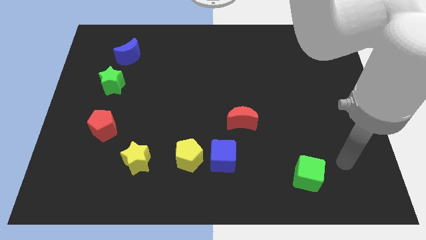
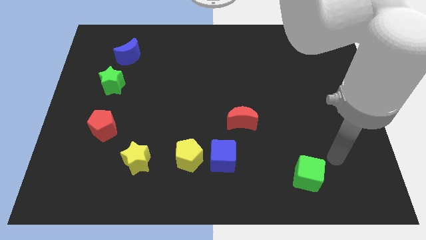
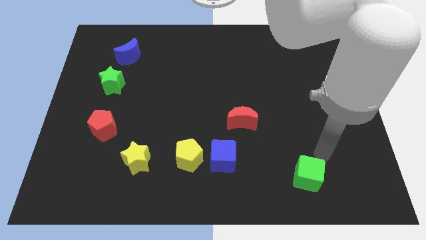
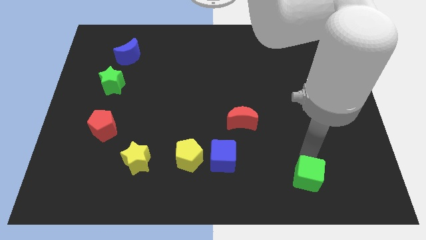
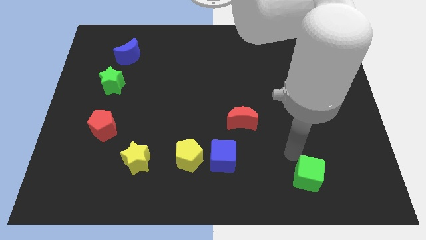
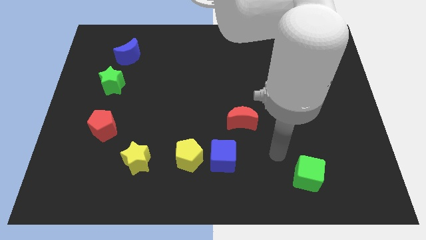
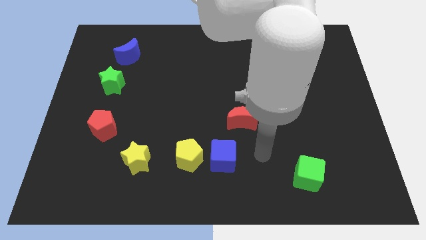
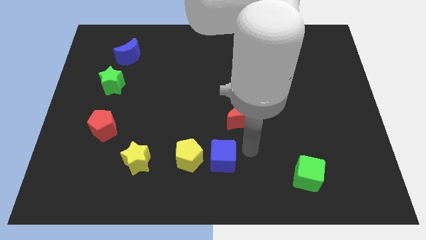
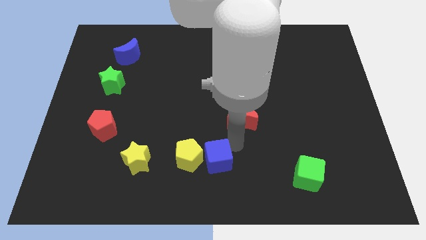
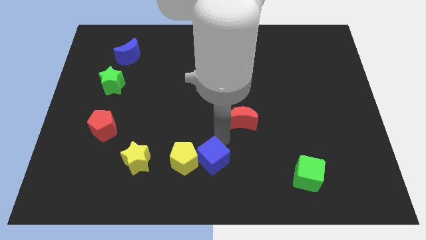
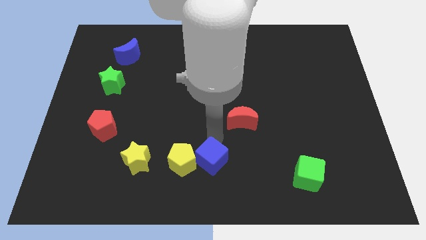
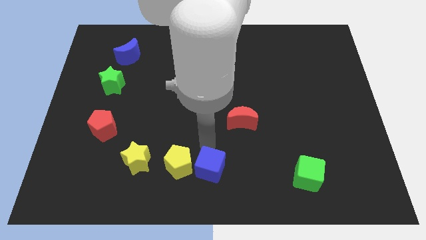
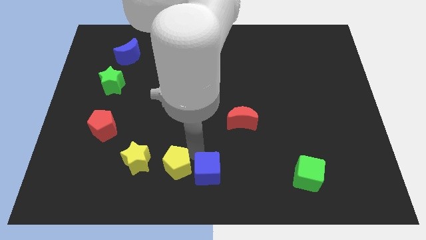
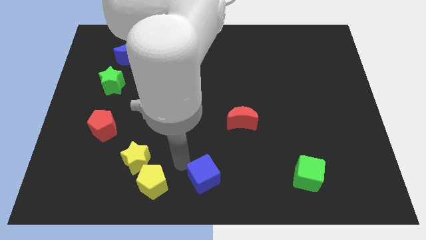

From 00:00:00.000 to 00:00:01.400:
pull the blue cube apart from the yellow pentagon

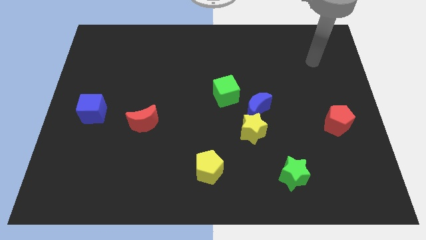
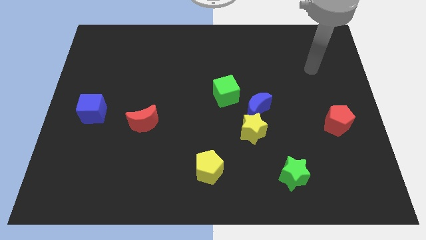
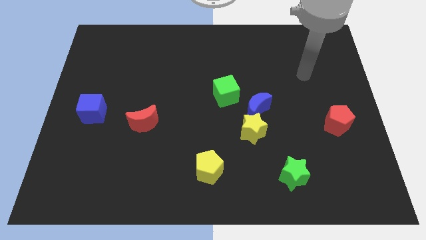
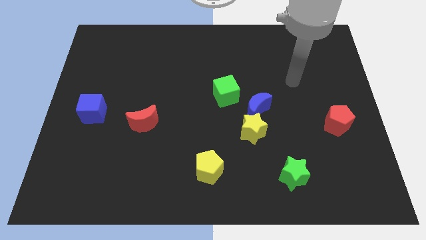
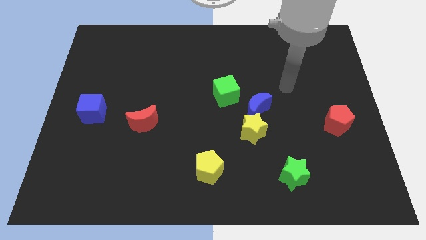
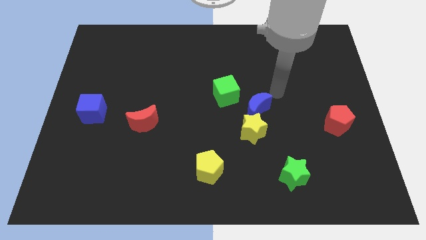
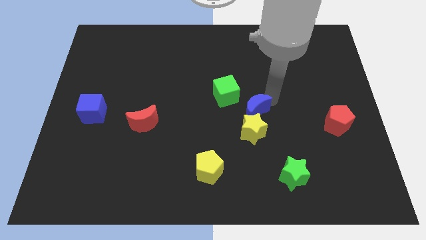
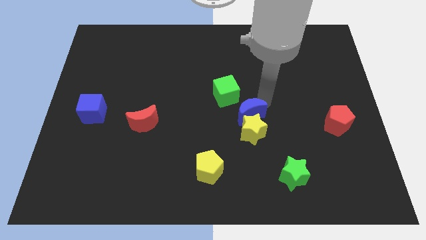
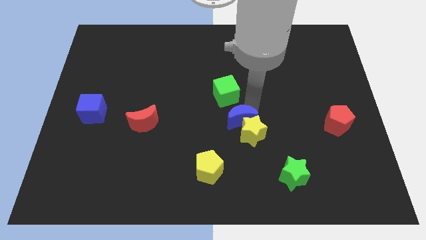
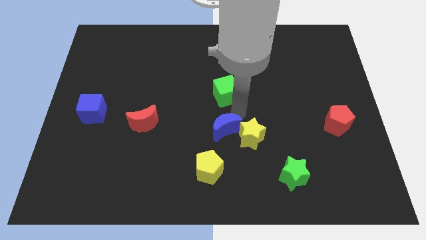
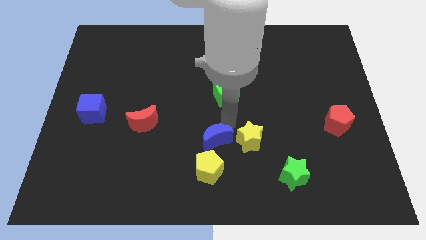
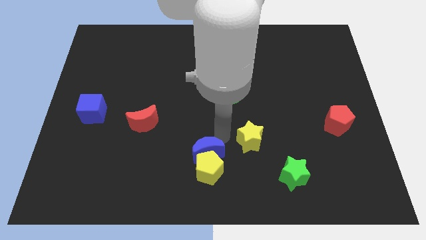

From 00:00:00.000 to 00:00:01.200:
move the yellow star away from the blue moon

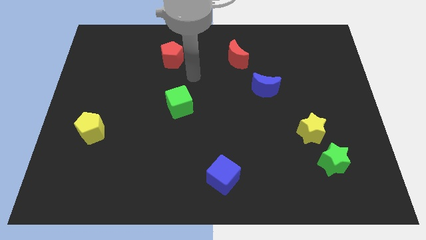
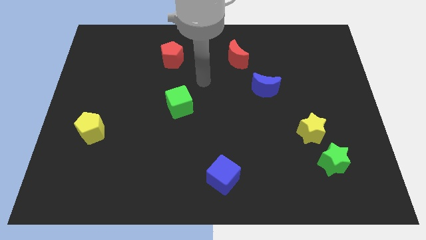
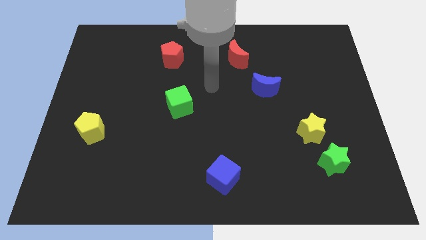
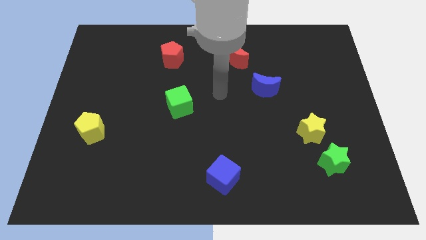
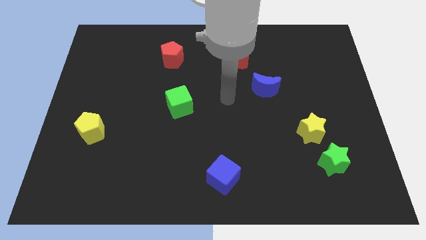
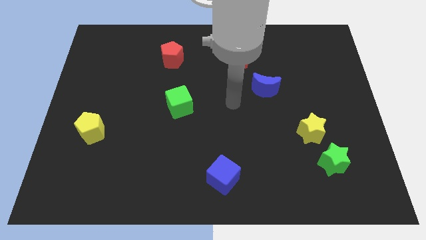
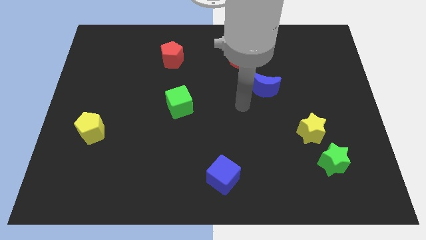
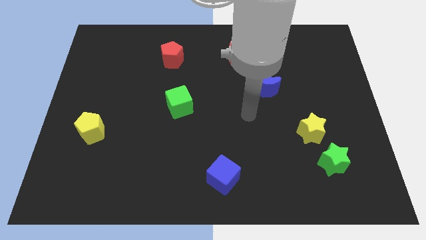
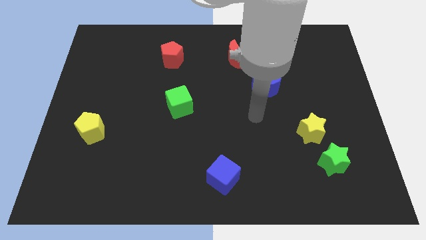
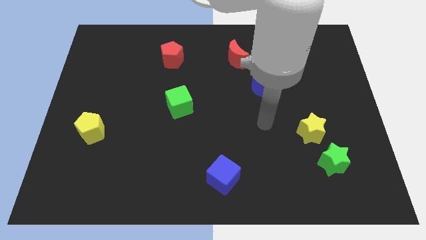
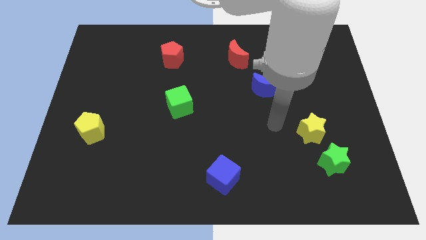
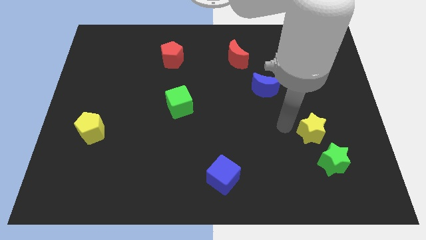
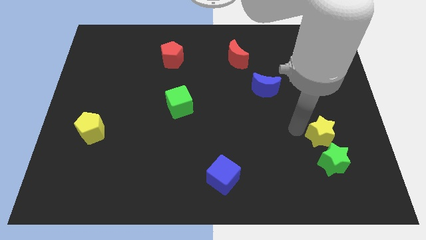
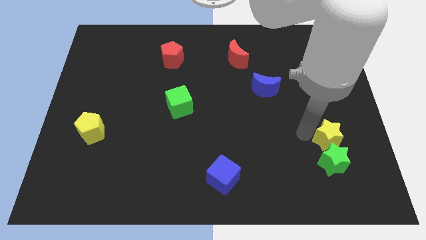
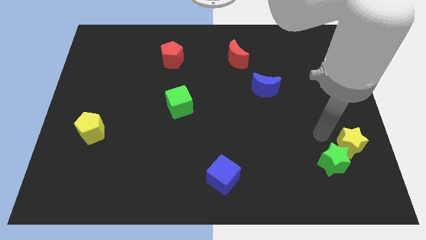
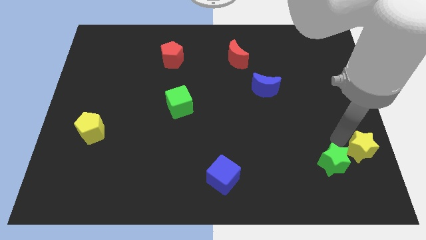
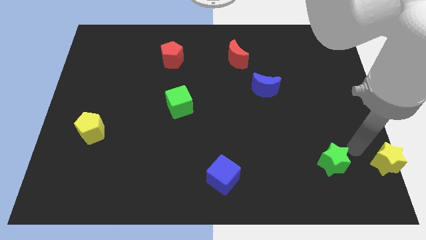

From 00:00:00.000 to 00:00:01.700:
pull the green star apart from the yellow star

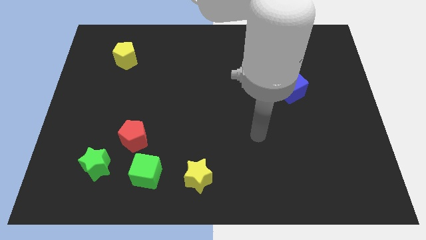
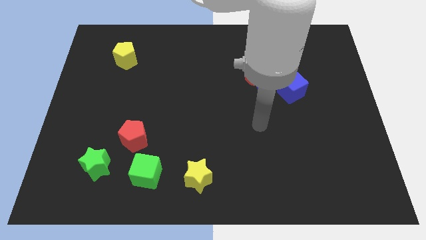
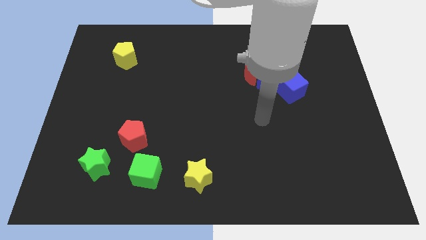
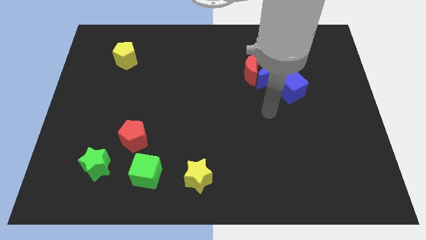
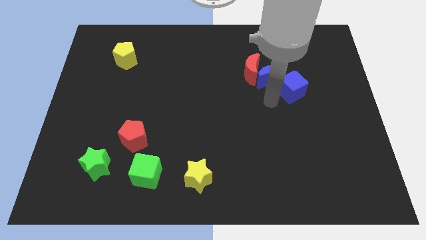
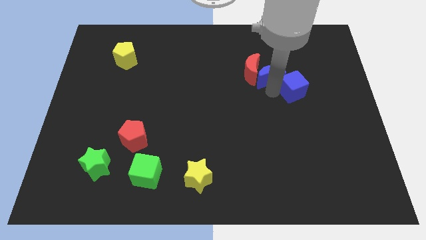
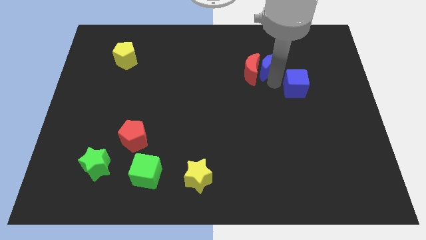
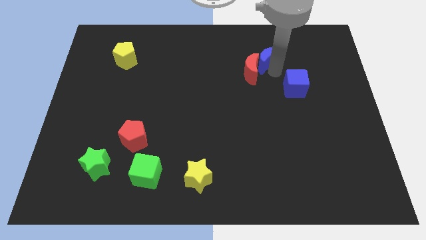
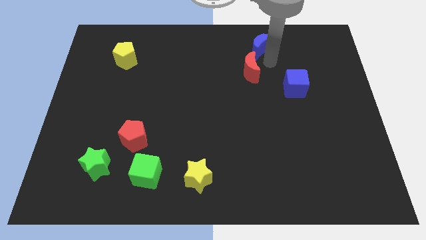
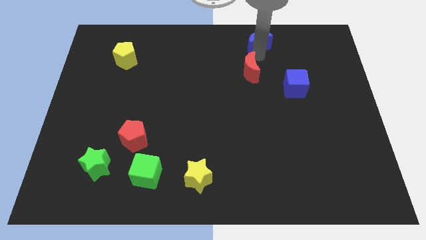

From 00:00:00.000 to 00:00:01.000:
pull the red moon apart from the blue moon

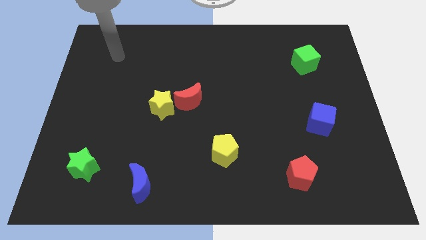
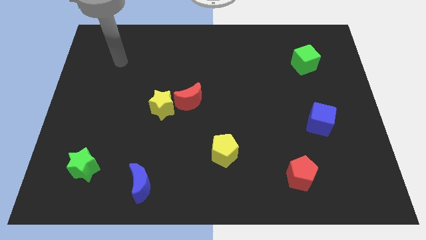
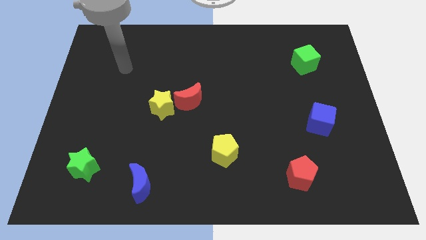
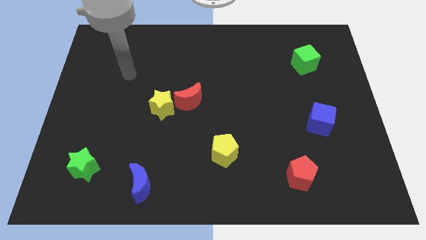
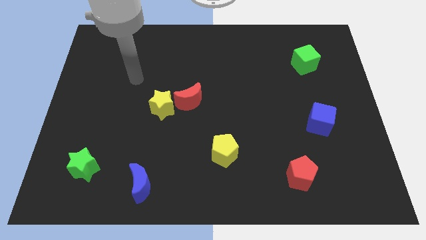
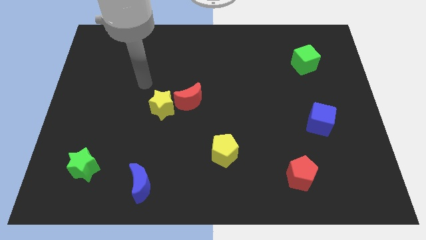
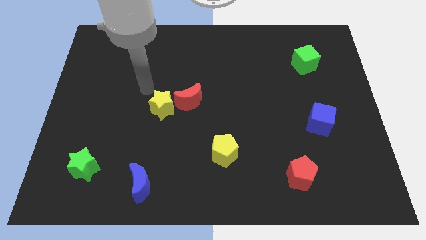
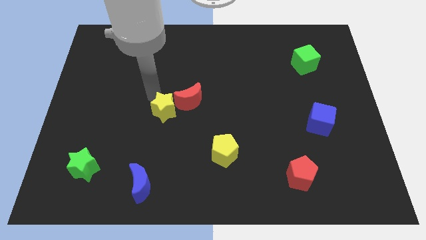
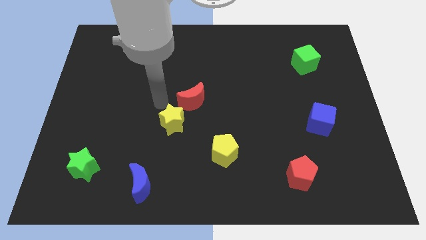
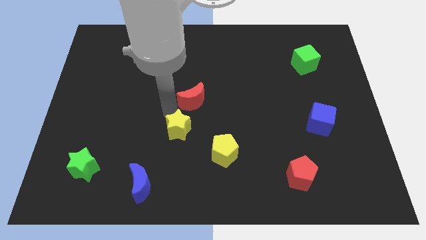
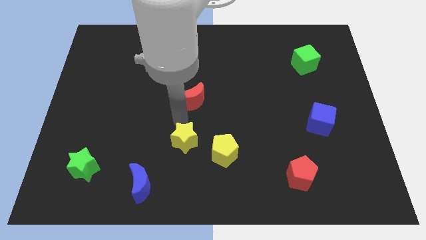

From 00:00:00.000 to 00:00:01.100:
pull the red moon apart from the yellow star

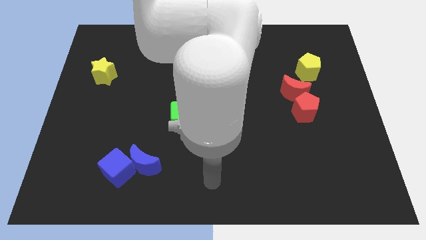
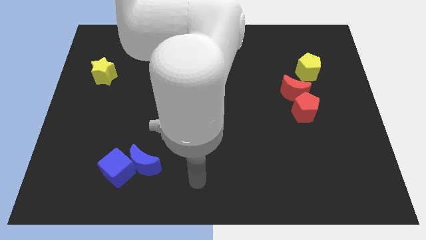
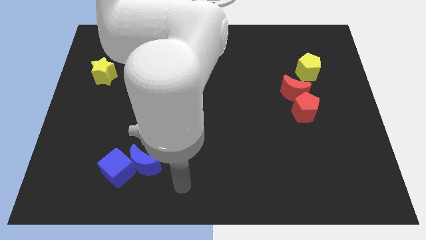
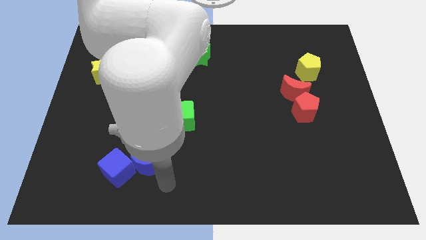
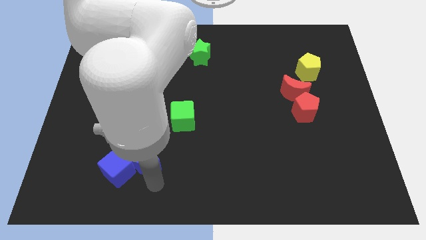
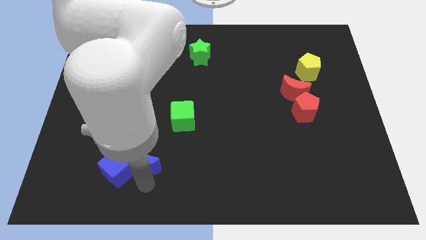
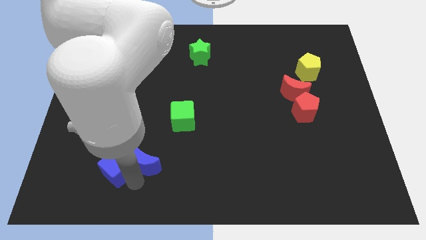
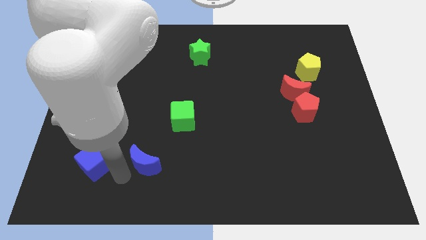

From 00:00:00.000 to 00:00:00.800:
separate the blue moon from the blue cube

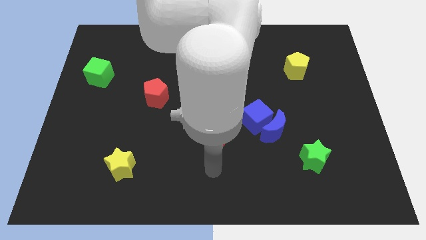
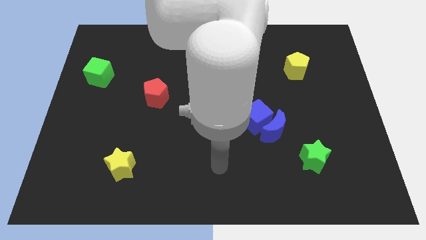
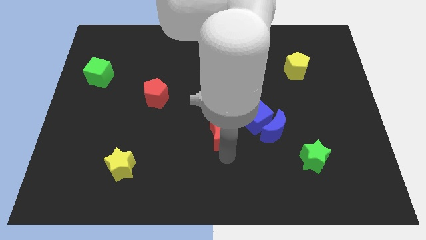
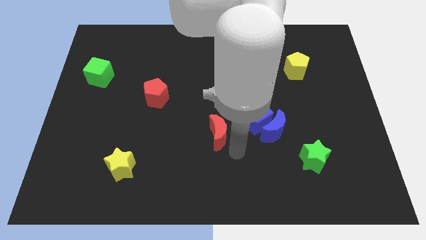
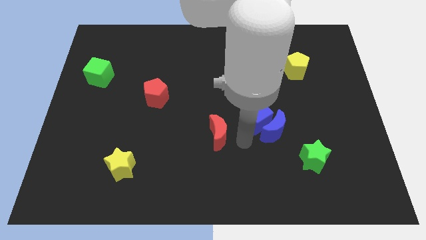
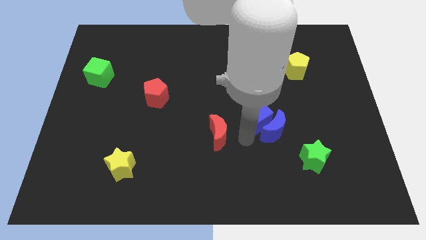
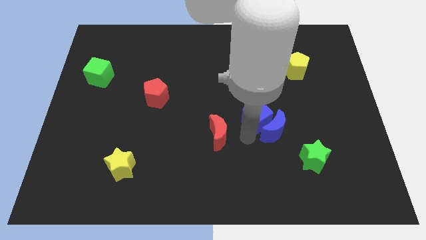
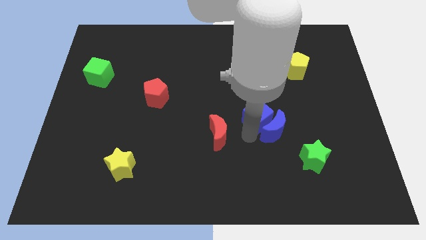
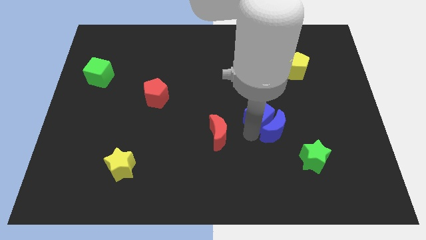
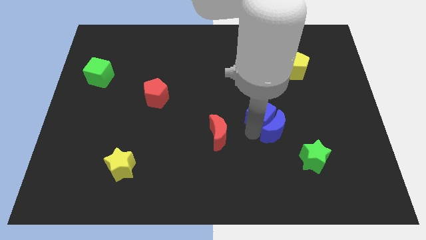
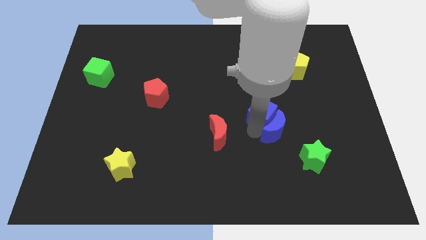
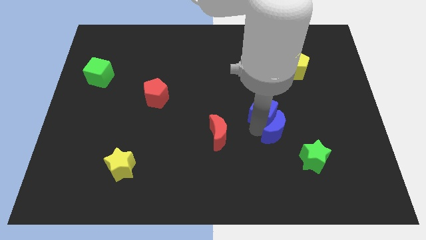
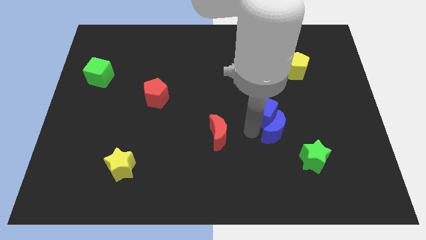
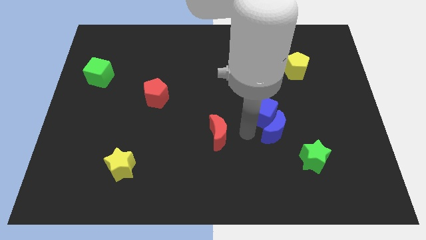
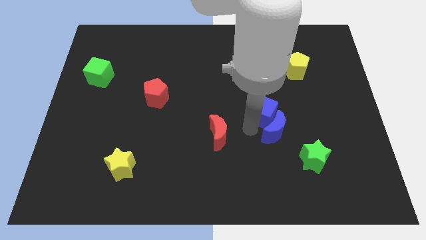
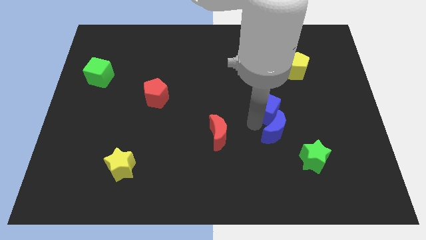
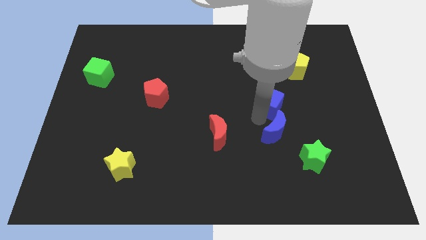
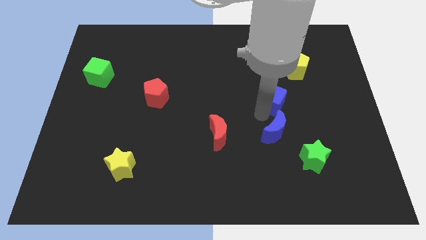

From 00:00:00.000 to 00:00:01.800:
separate the blue cube from the blue moon and red moon

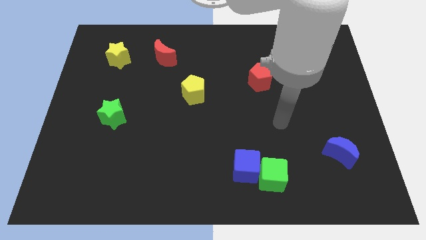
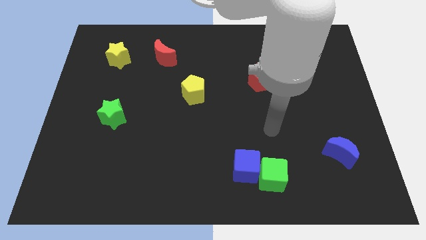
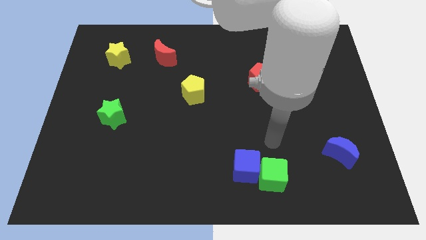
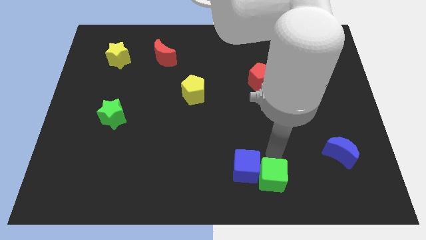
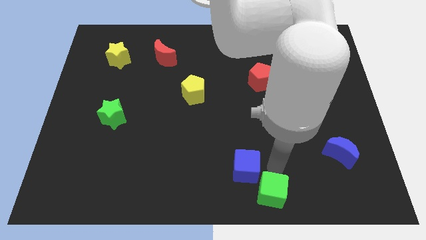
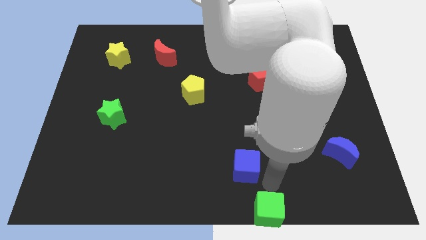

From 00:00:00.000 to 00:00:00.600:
separate the blue cube from the green cube
